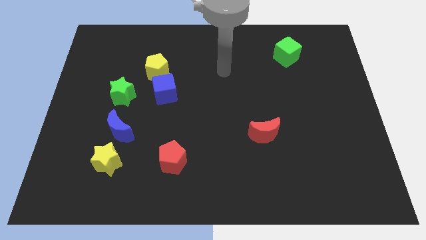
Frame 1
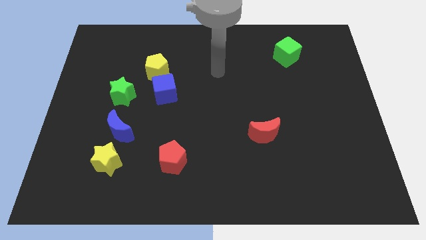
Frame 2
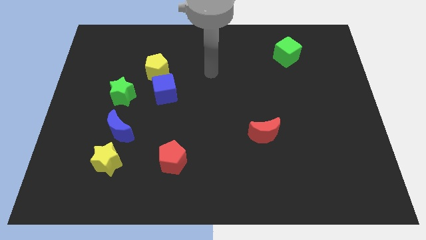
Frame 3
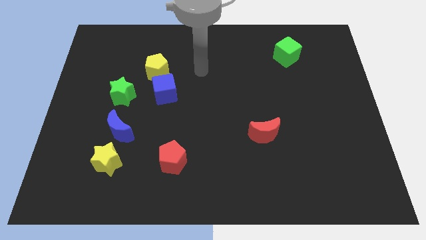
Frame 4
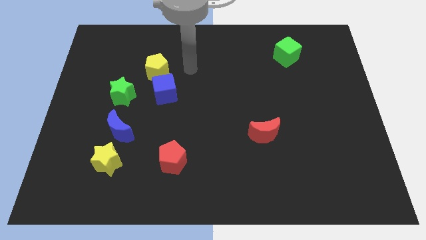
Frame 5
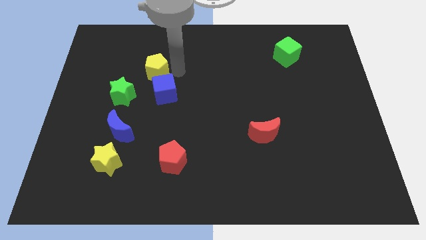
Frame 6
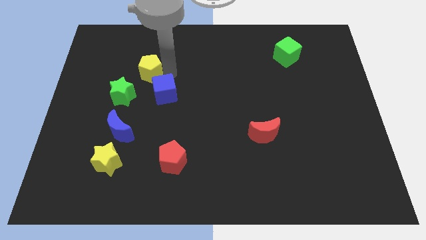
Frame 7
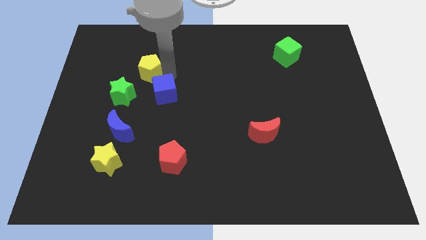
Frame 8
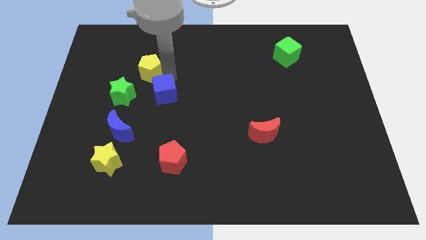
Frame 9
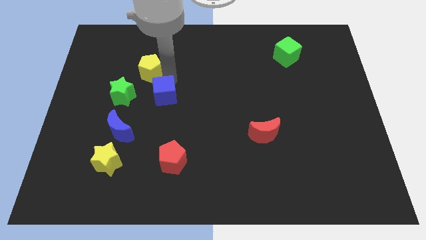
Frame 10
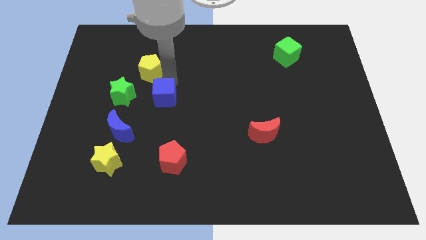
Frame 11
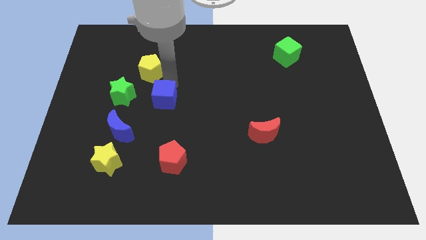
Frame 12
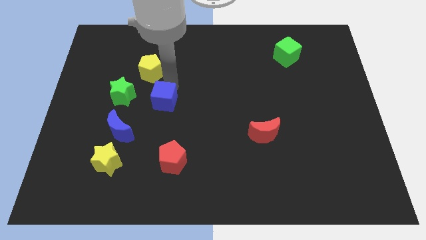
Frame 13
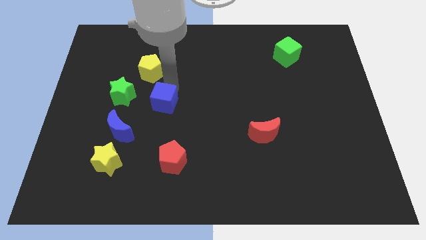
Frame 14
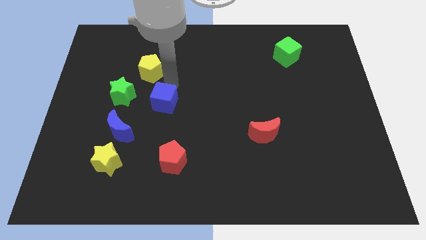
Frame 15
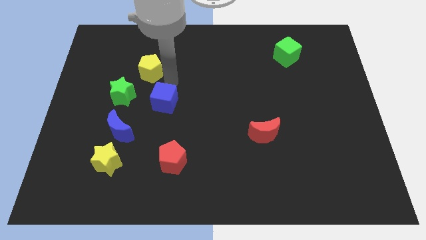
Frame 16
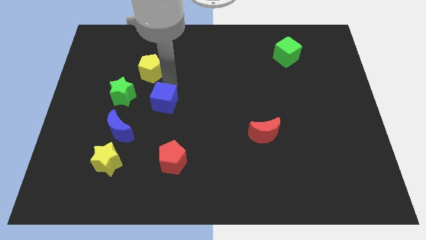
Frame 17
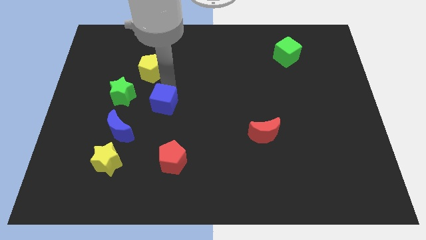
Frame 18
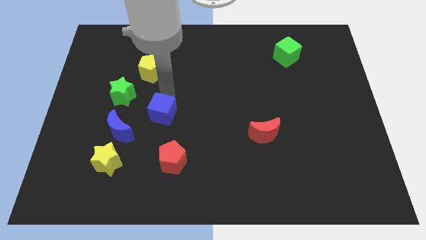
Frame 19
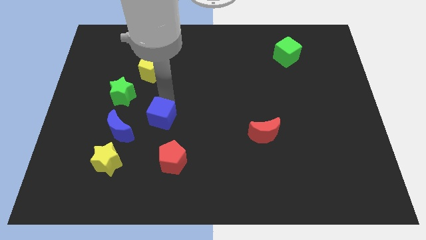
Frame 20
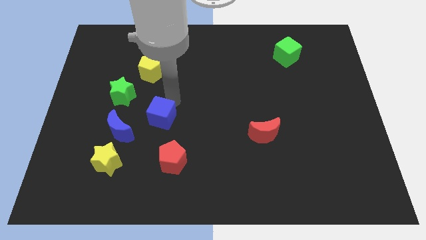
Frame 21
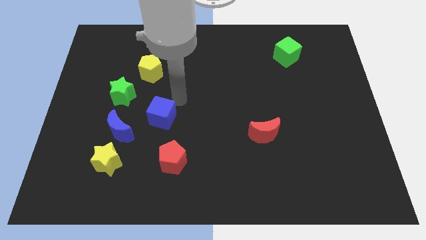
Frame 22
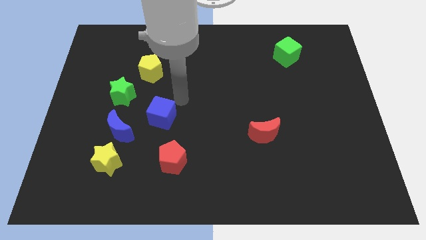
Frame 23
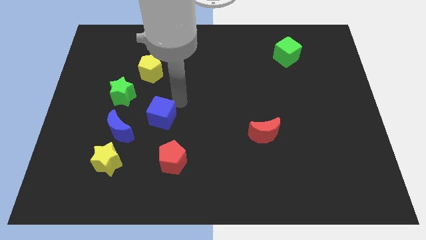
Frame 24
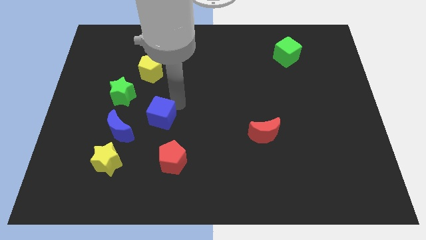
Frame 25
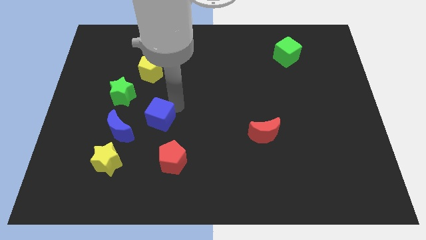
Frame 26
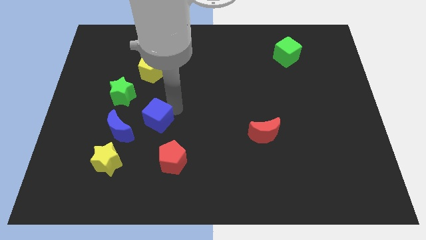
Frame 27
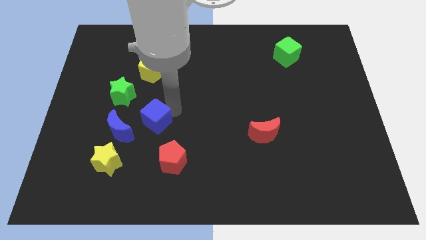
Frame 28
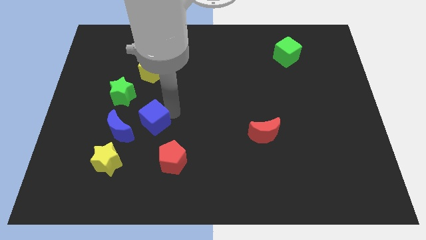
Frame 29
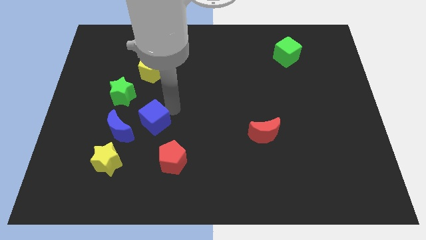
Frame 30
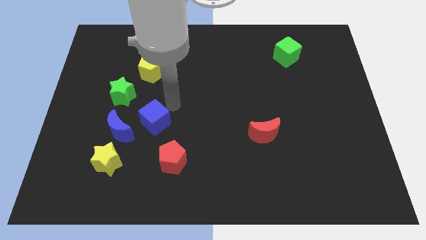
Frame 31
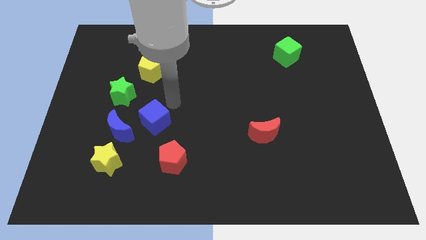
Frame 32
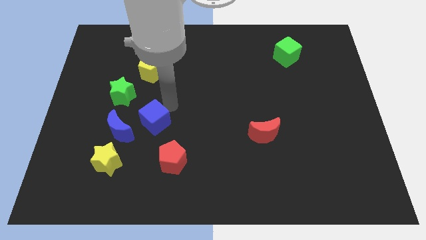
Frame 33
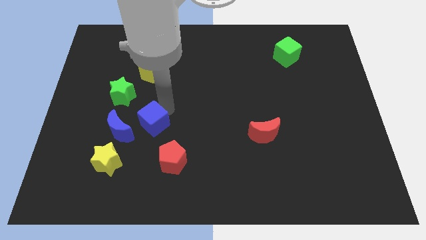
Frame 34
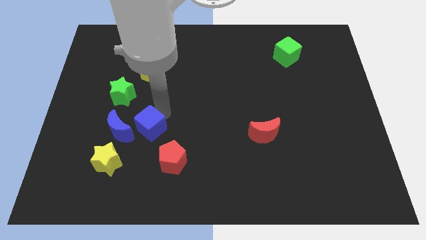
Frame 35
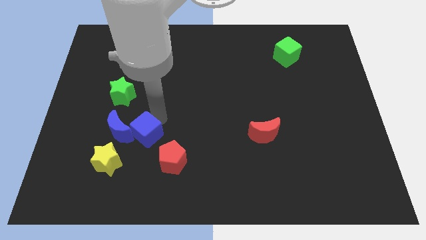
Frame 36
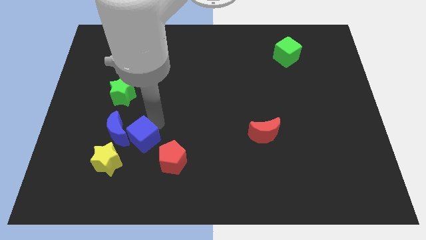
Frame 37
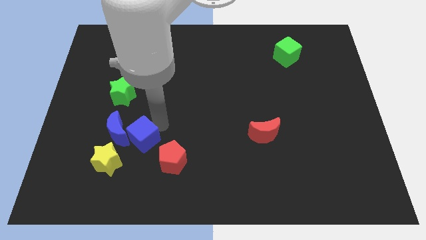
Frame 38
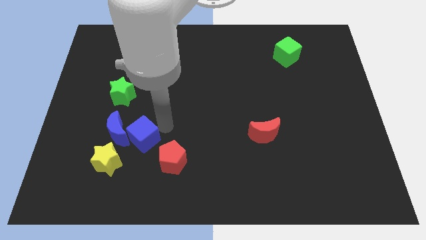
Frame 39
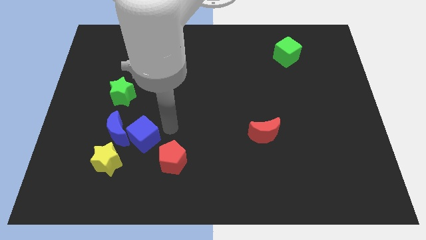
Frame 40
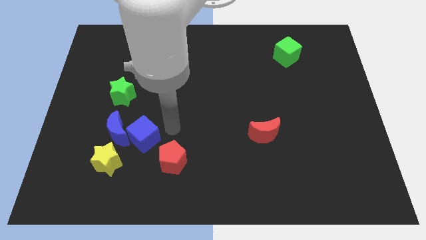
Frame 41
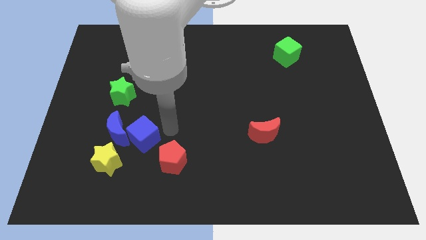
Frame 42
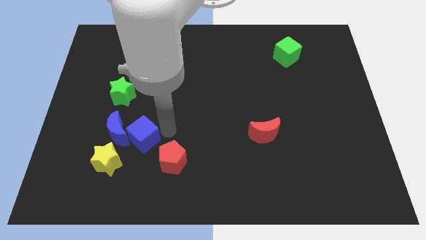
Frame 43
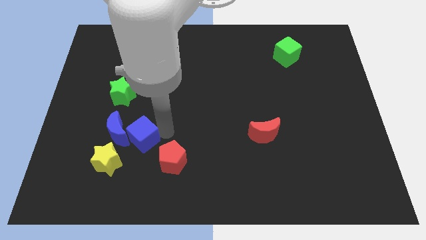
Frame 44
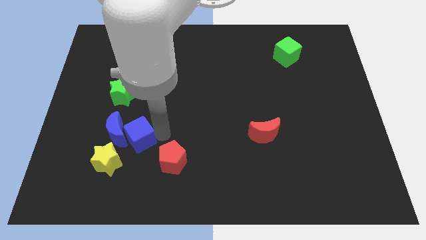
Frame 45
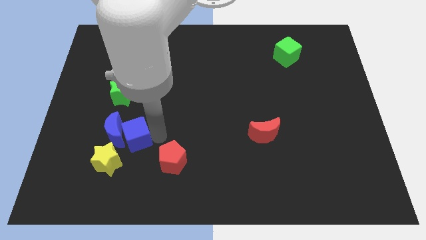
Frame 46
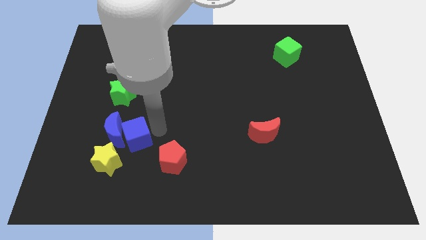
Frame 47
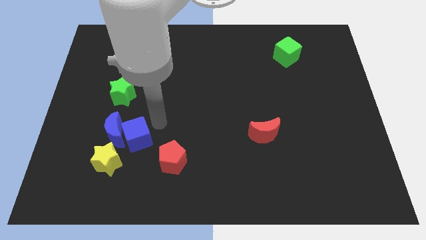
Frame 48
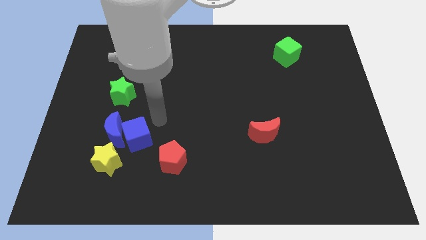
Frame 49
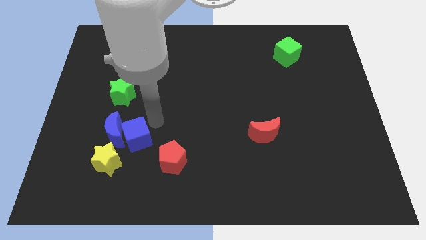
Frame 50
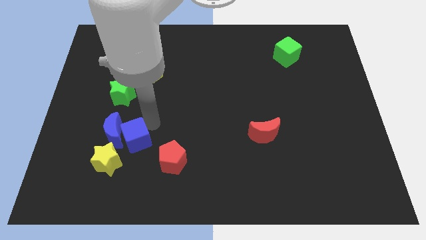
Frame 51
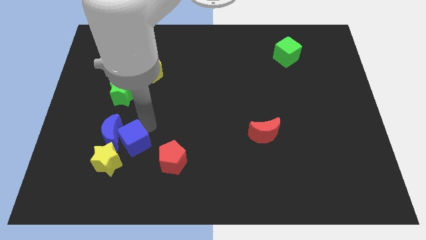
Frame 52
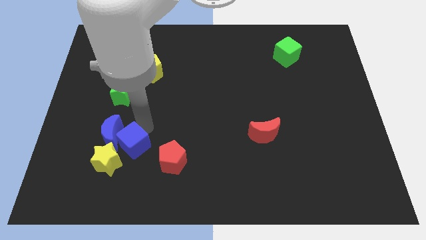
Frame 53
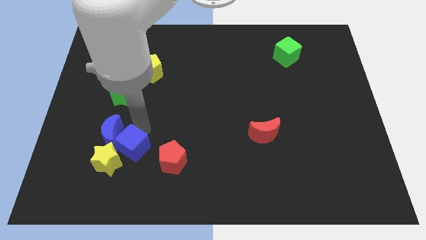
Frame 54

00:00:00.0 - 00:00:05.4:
put the blue cube to the yellow star

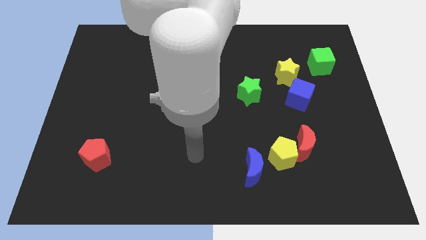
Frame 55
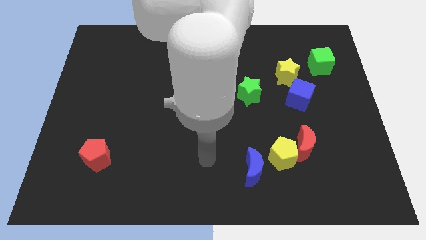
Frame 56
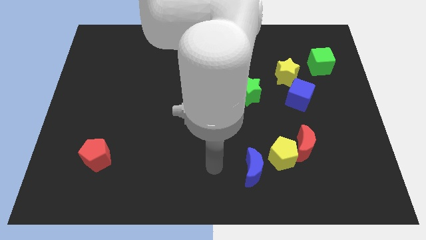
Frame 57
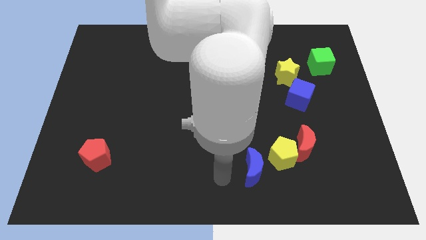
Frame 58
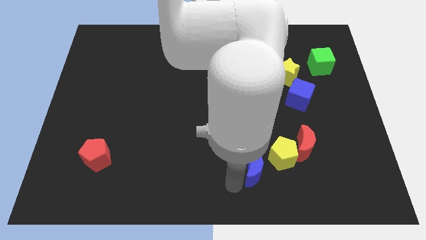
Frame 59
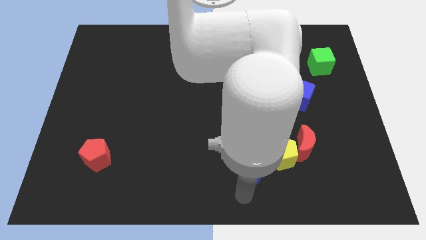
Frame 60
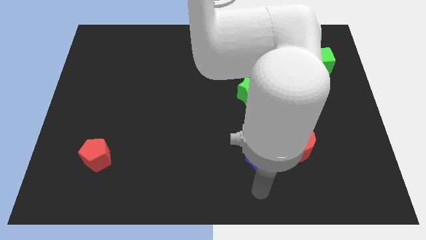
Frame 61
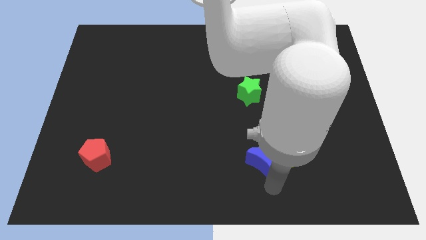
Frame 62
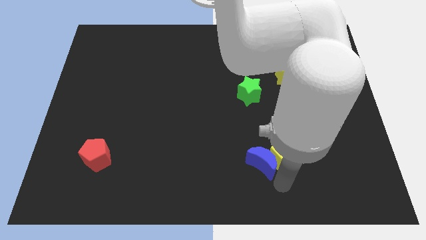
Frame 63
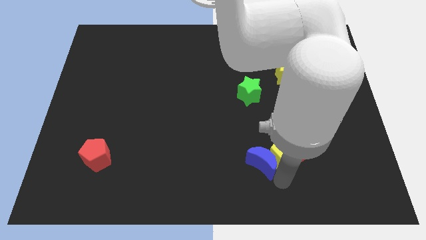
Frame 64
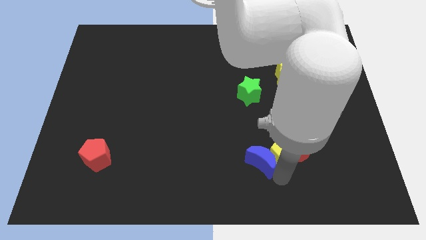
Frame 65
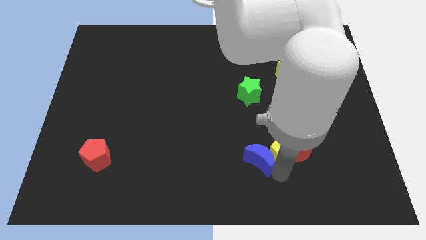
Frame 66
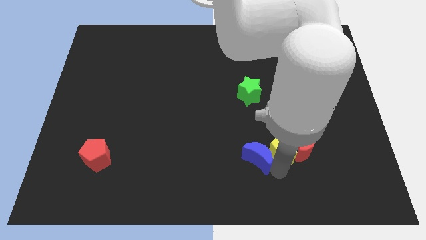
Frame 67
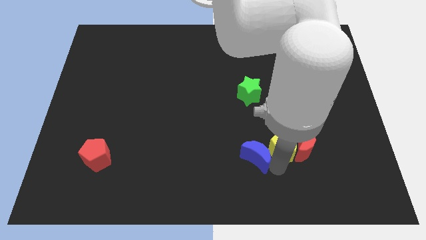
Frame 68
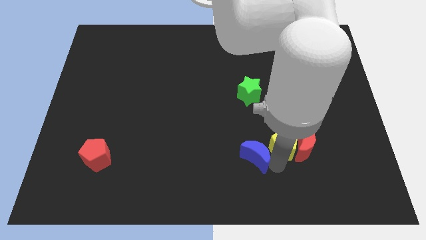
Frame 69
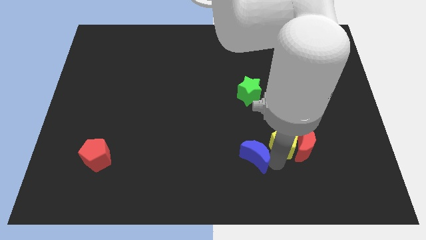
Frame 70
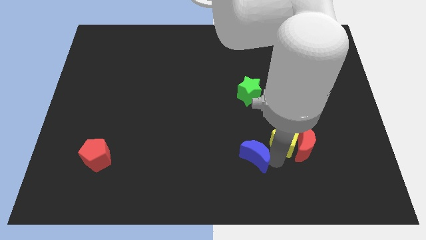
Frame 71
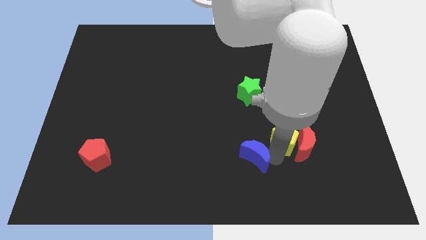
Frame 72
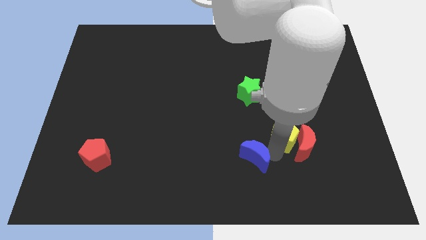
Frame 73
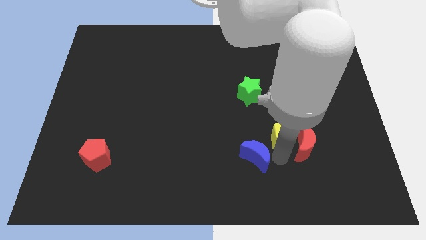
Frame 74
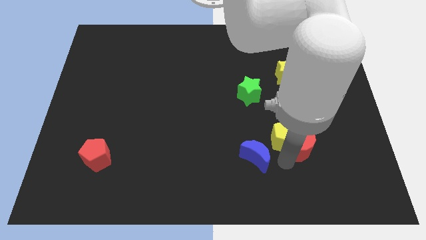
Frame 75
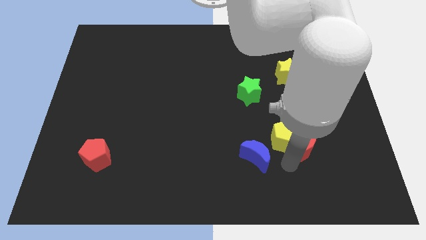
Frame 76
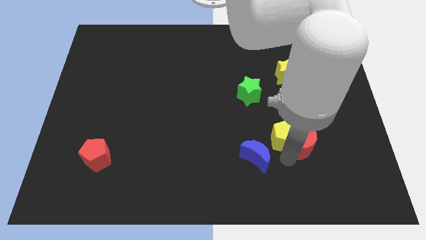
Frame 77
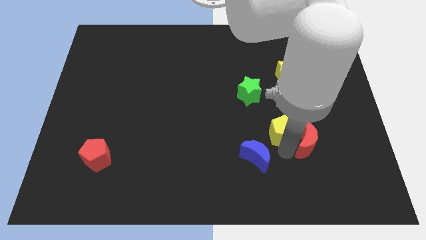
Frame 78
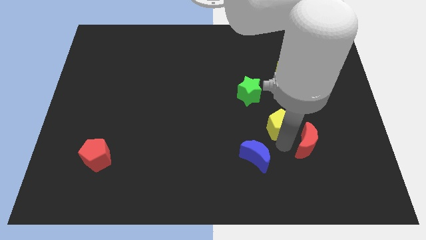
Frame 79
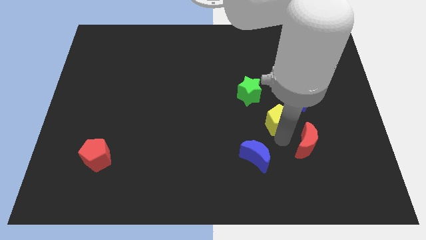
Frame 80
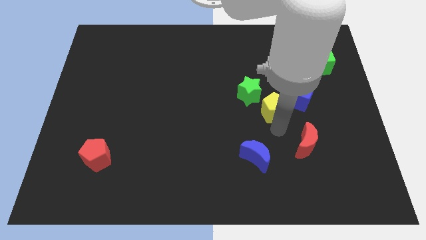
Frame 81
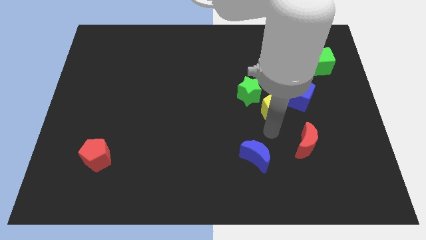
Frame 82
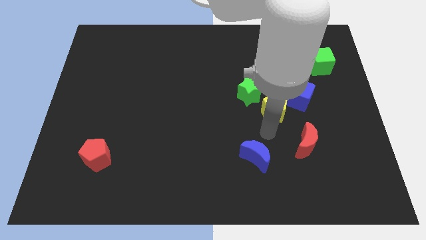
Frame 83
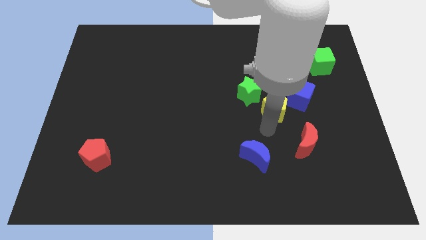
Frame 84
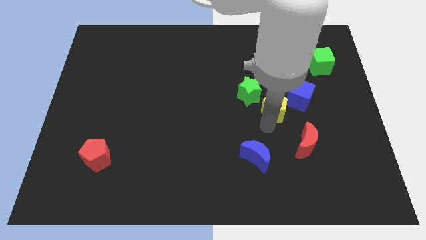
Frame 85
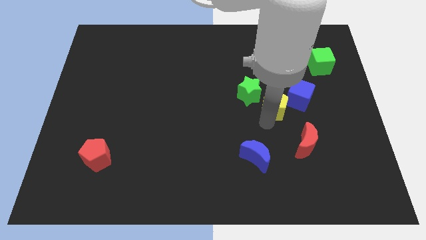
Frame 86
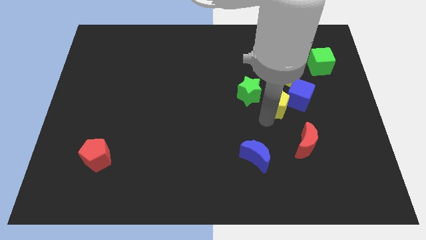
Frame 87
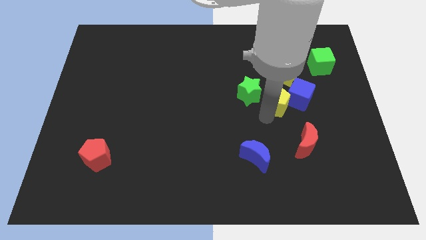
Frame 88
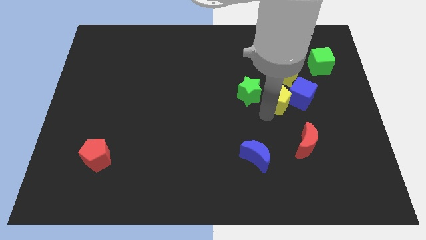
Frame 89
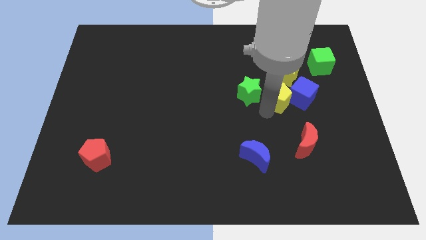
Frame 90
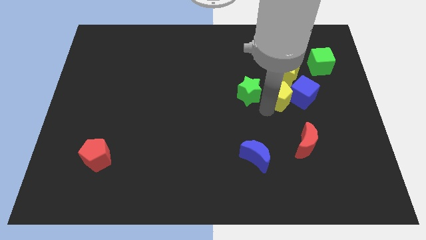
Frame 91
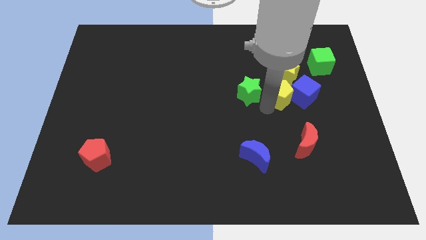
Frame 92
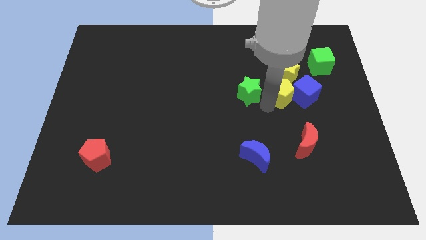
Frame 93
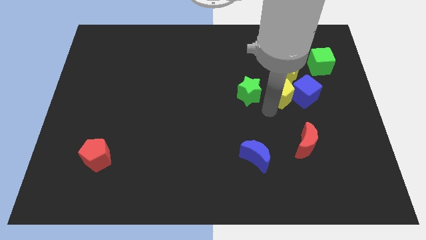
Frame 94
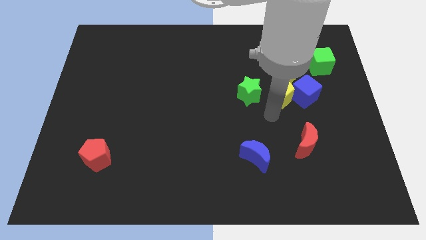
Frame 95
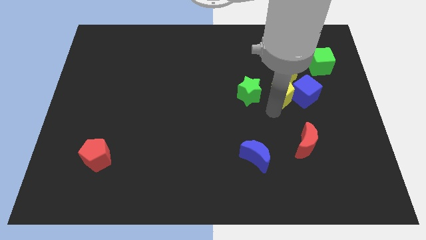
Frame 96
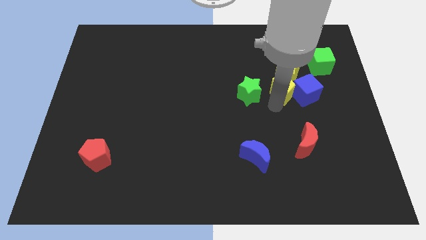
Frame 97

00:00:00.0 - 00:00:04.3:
slide the yellow pentagon to the yellow star
